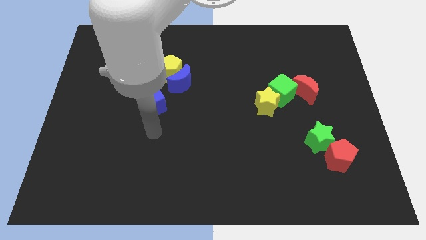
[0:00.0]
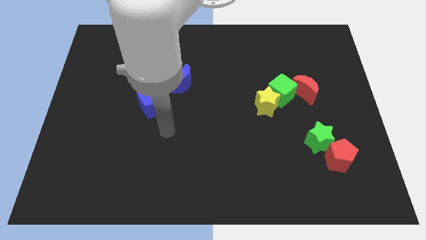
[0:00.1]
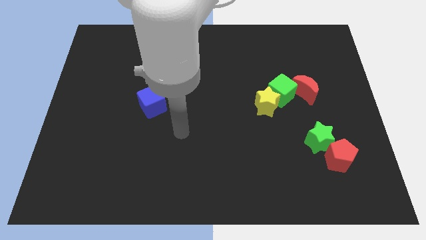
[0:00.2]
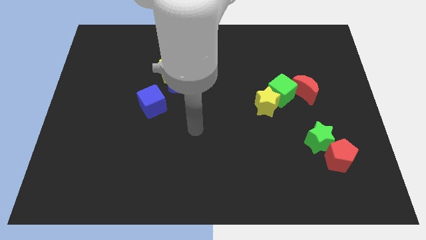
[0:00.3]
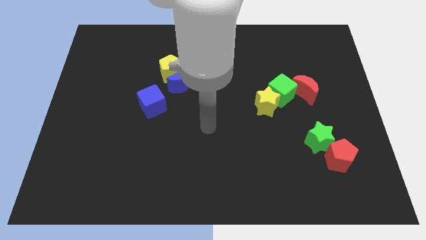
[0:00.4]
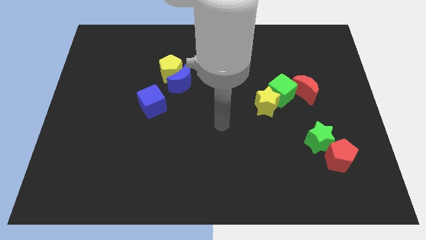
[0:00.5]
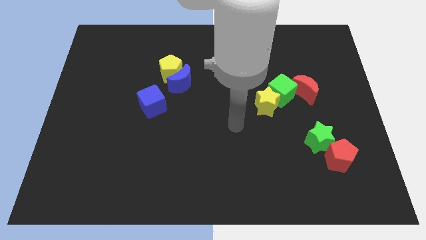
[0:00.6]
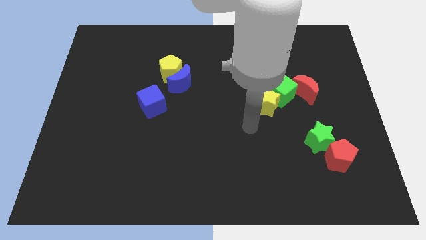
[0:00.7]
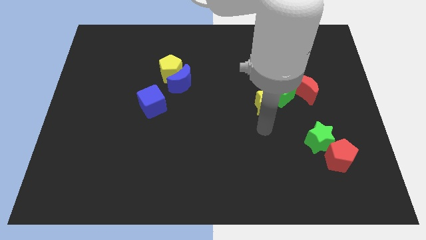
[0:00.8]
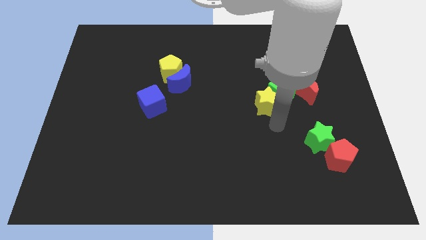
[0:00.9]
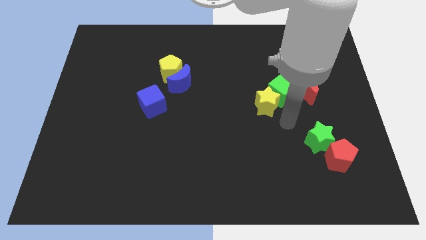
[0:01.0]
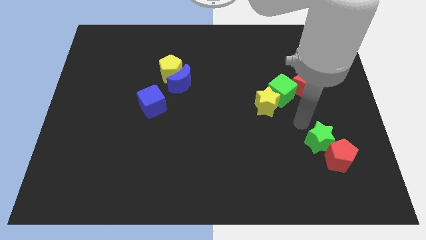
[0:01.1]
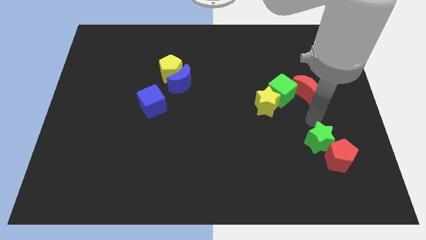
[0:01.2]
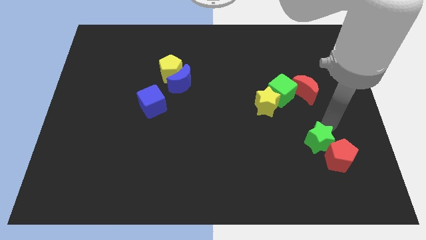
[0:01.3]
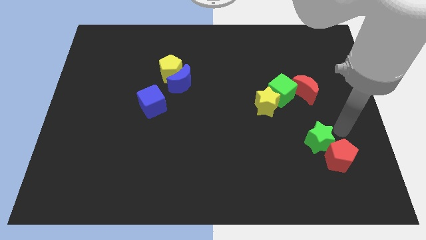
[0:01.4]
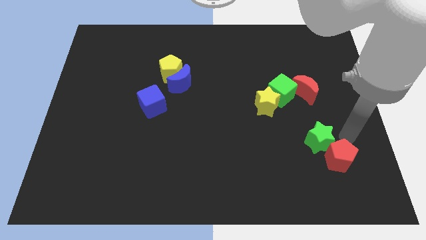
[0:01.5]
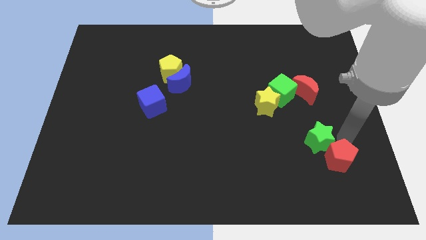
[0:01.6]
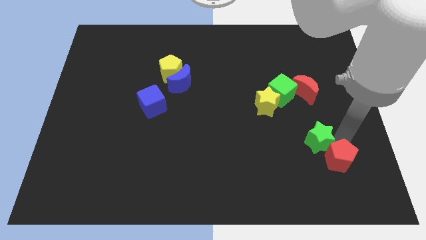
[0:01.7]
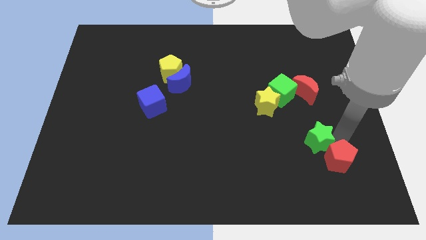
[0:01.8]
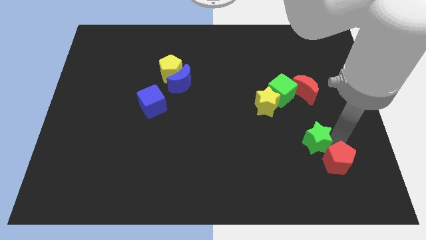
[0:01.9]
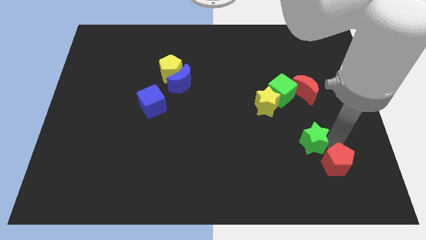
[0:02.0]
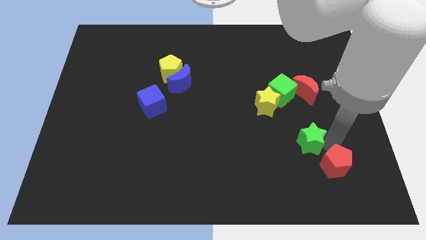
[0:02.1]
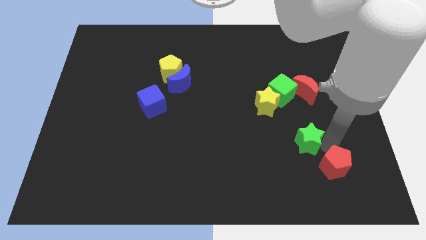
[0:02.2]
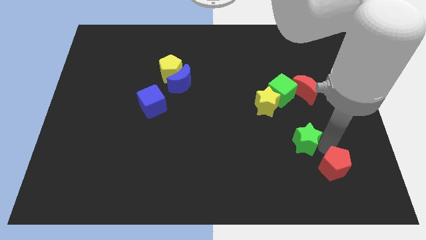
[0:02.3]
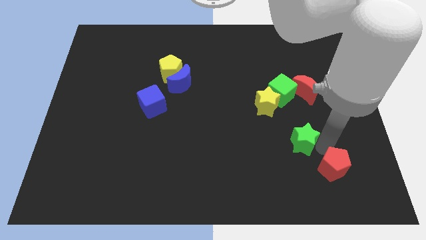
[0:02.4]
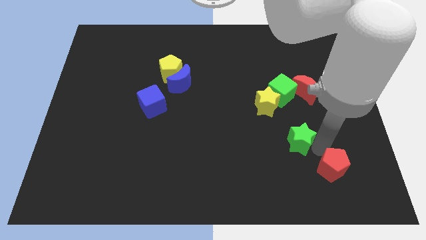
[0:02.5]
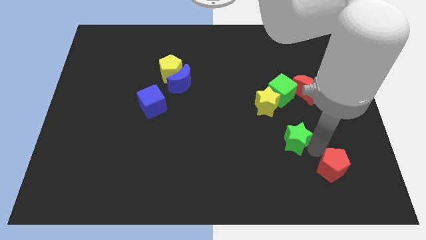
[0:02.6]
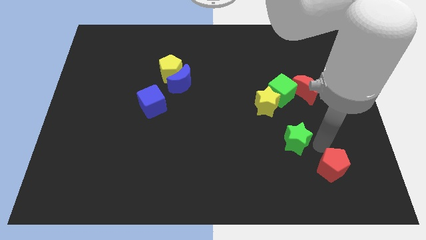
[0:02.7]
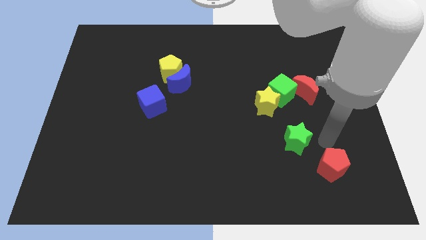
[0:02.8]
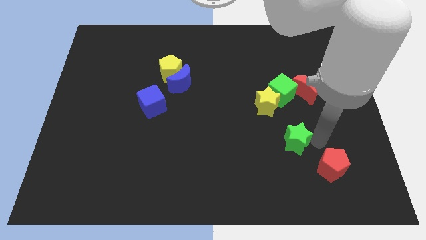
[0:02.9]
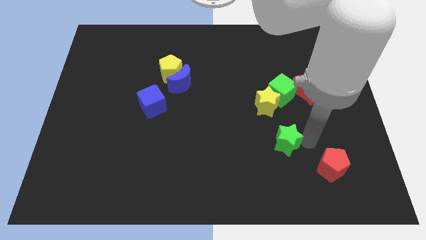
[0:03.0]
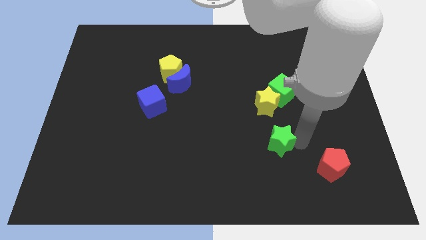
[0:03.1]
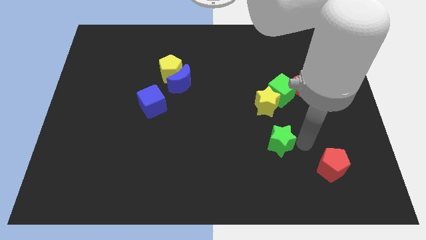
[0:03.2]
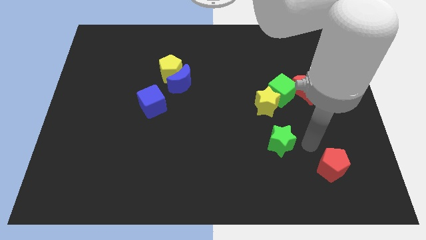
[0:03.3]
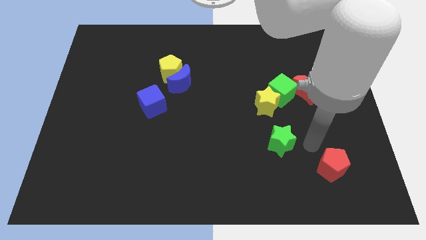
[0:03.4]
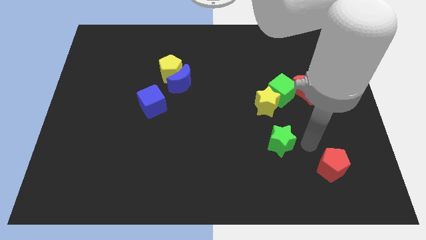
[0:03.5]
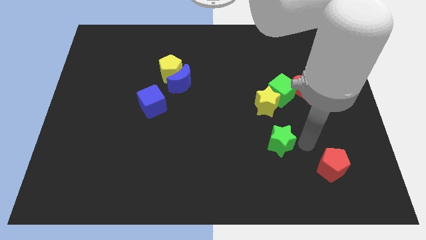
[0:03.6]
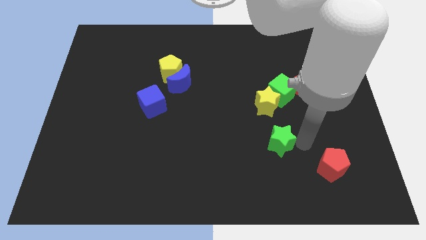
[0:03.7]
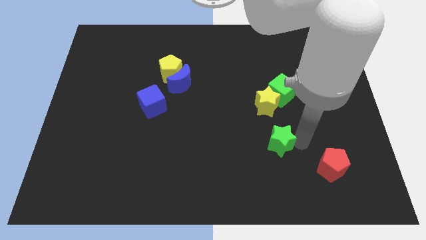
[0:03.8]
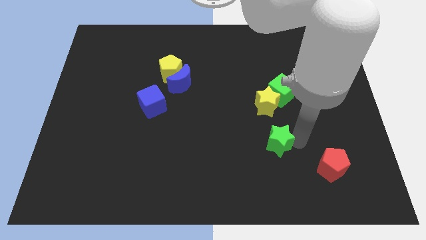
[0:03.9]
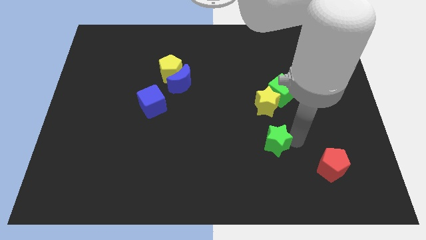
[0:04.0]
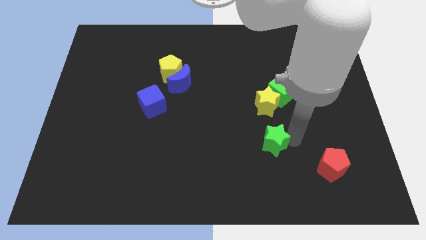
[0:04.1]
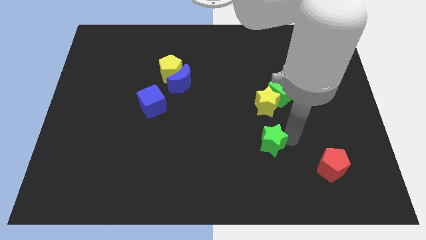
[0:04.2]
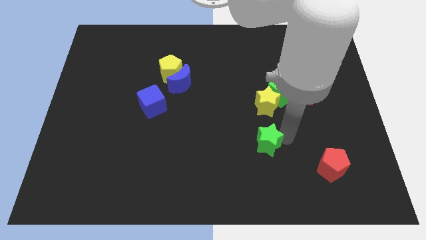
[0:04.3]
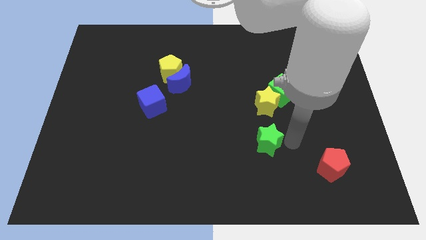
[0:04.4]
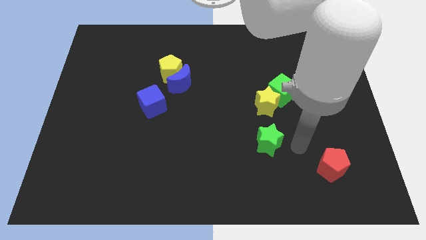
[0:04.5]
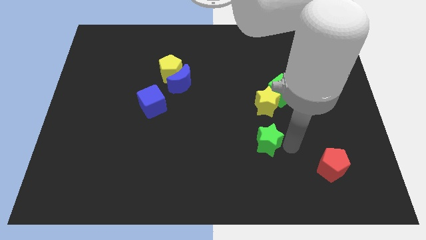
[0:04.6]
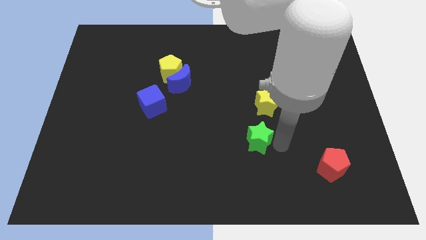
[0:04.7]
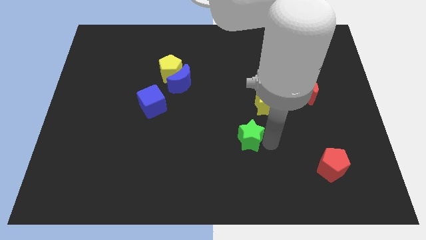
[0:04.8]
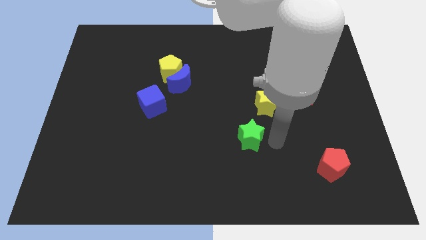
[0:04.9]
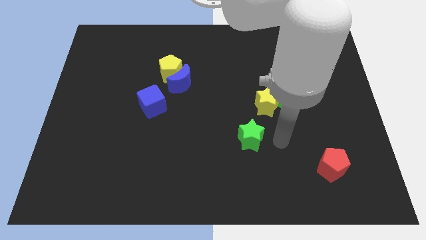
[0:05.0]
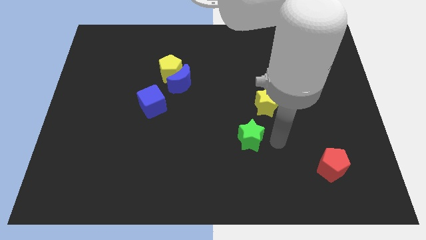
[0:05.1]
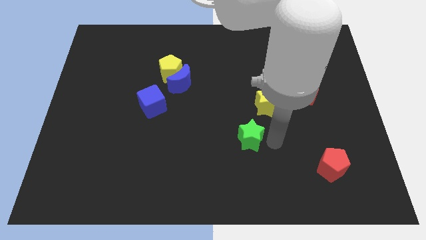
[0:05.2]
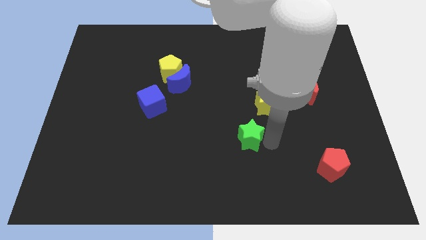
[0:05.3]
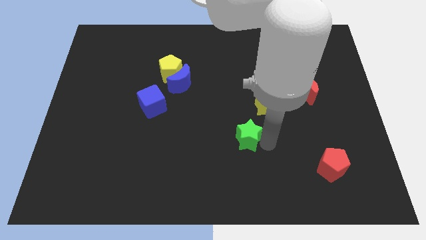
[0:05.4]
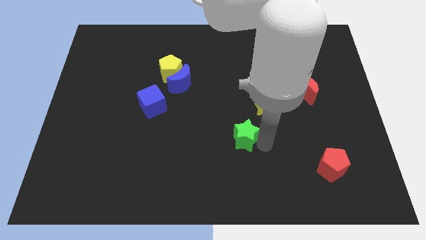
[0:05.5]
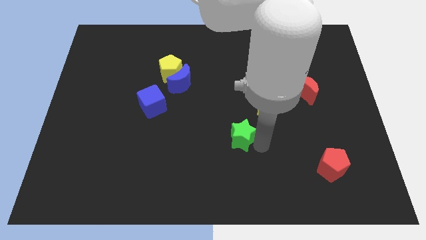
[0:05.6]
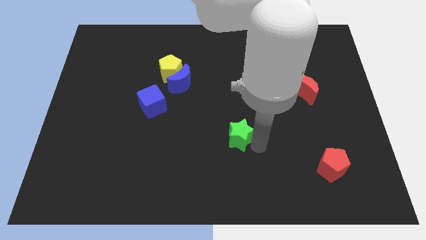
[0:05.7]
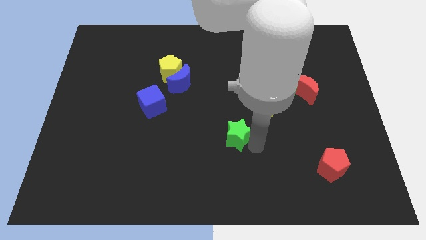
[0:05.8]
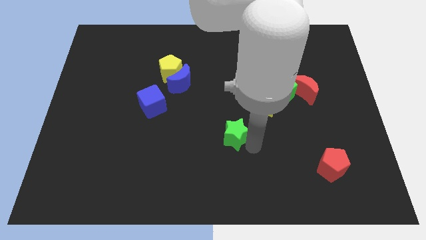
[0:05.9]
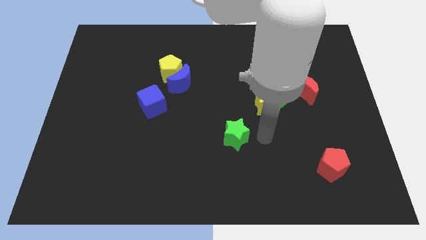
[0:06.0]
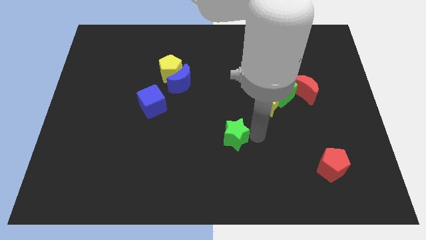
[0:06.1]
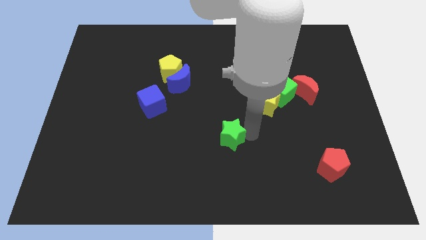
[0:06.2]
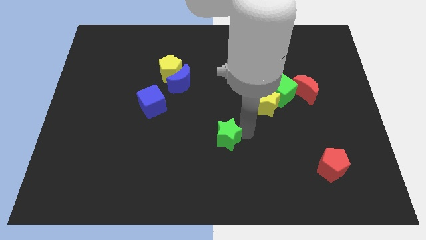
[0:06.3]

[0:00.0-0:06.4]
slide the green star to the left

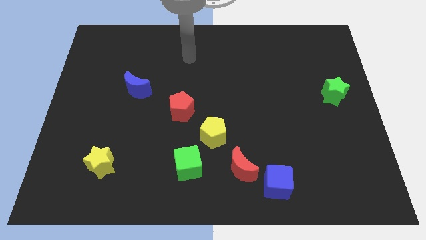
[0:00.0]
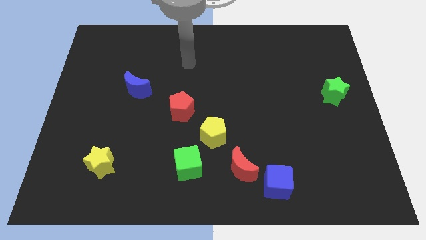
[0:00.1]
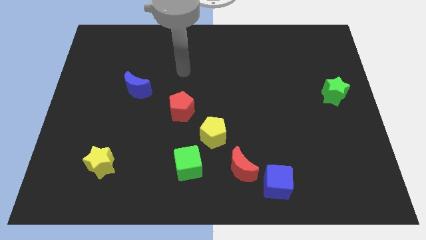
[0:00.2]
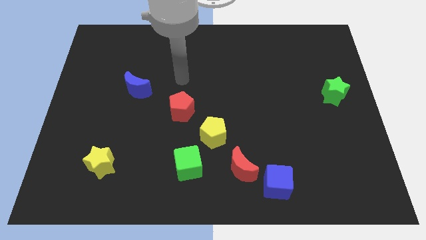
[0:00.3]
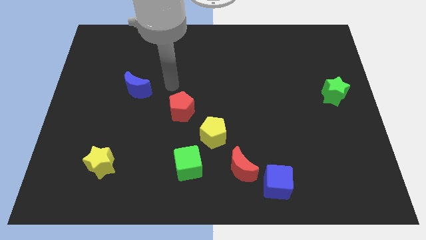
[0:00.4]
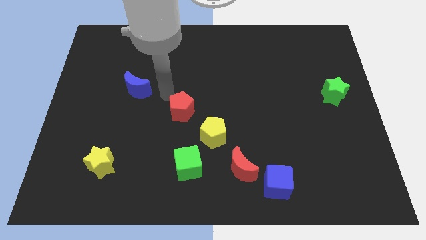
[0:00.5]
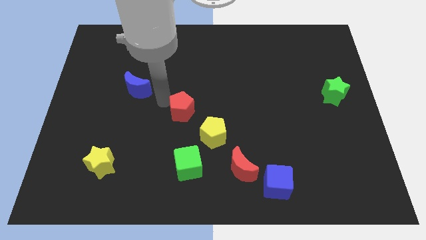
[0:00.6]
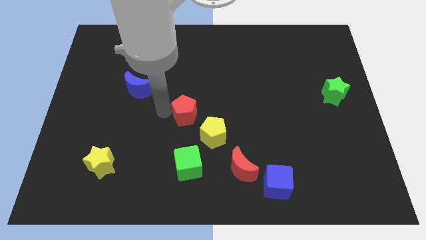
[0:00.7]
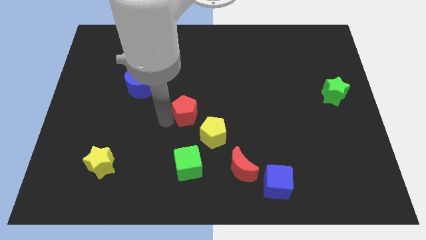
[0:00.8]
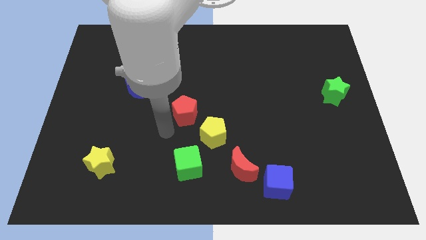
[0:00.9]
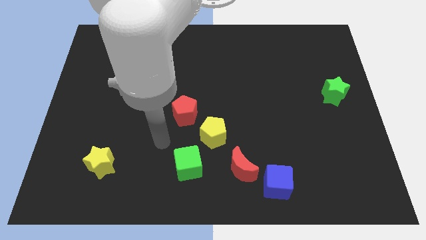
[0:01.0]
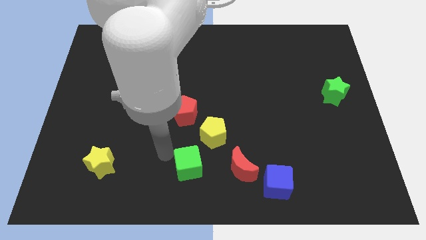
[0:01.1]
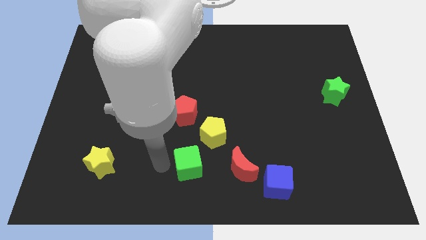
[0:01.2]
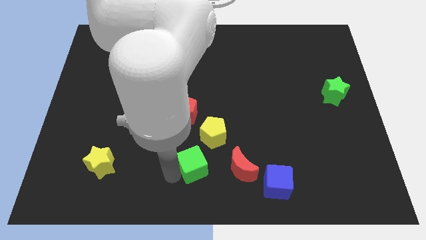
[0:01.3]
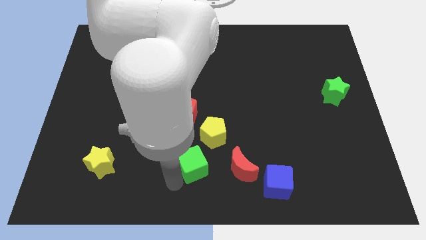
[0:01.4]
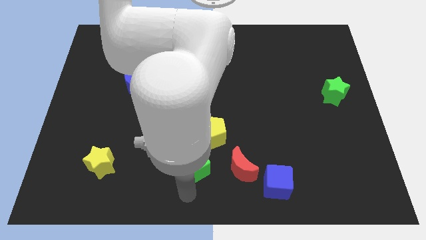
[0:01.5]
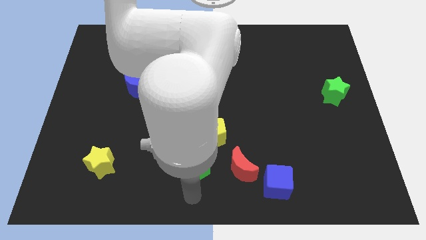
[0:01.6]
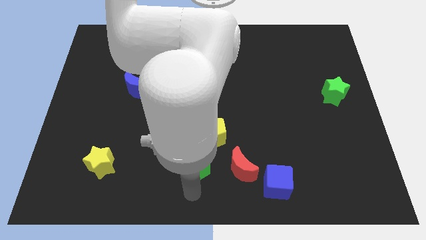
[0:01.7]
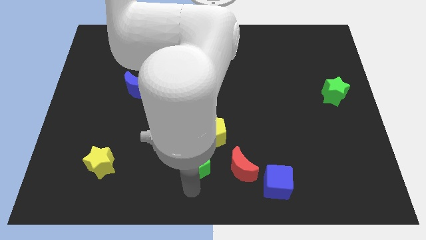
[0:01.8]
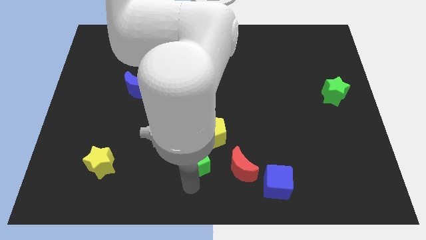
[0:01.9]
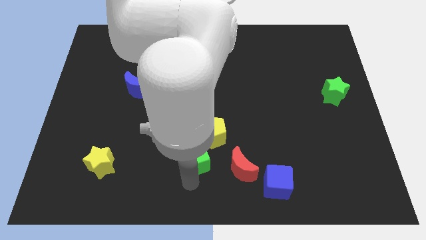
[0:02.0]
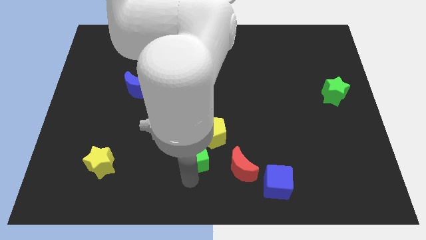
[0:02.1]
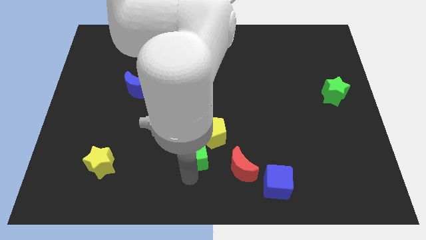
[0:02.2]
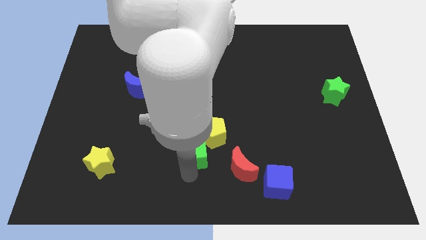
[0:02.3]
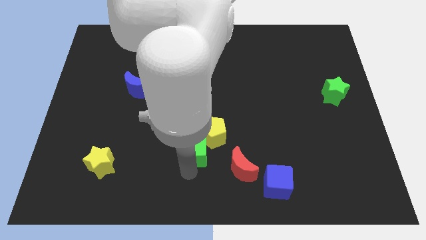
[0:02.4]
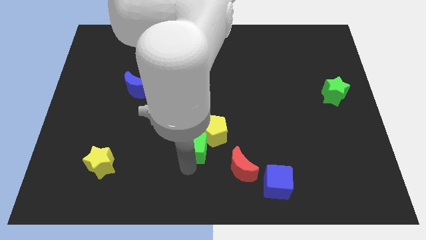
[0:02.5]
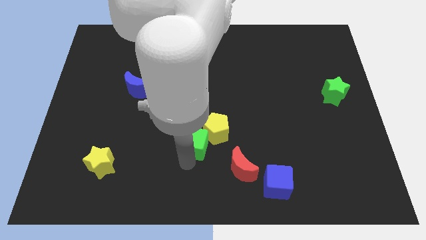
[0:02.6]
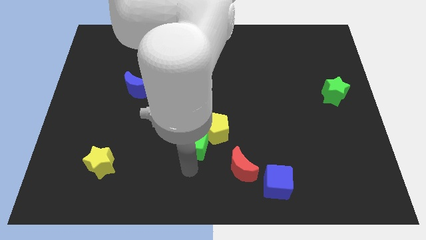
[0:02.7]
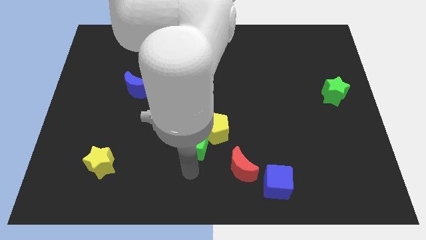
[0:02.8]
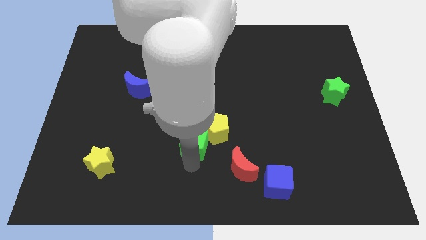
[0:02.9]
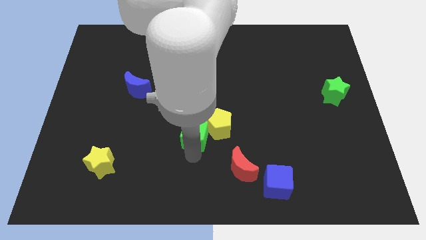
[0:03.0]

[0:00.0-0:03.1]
slightly slide the green cube up
